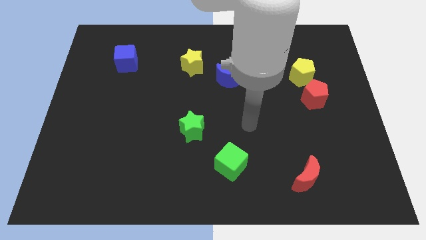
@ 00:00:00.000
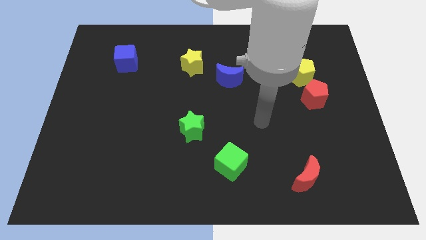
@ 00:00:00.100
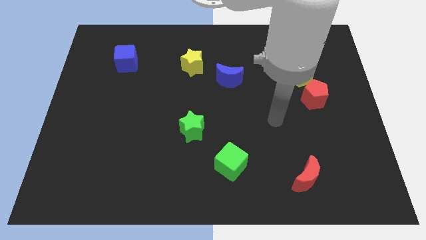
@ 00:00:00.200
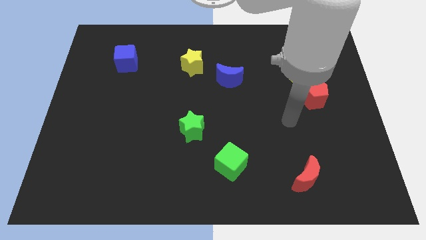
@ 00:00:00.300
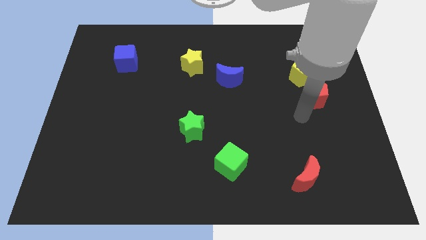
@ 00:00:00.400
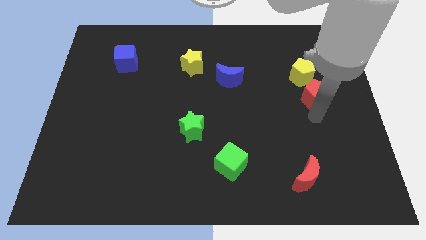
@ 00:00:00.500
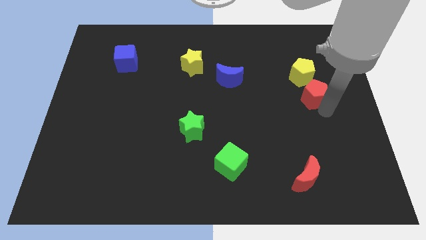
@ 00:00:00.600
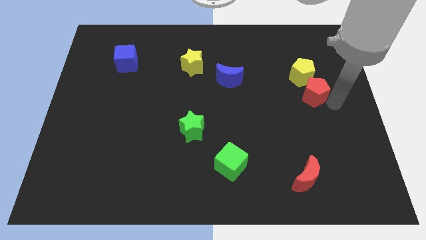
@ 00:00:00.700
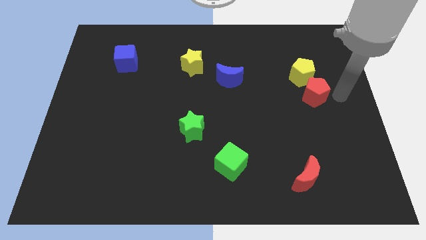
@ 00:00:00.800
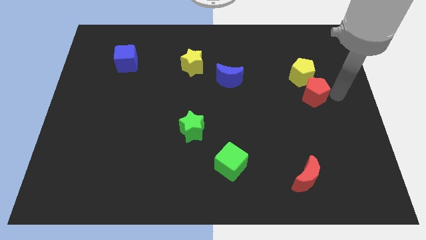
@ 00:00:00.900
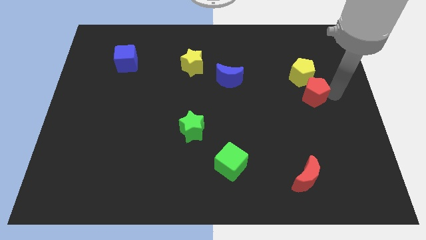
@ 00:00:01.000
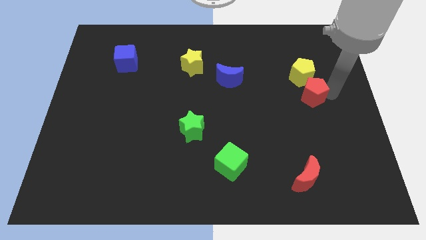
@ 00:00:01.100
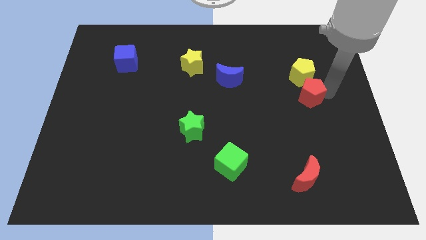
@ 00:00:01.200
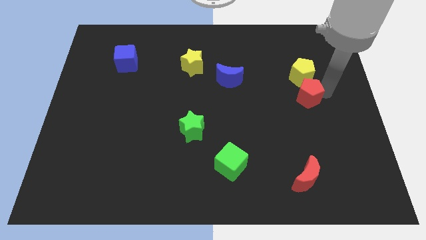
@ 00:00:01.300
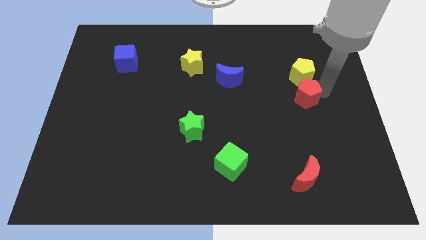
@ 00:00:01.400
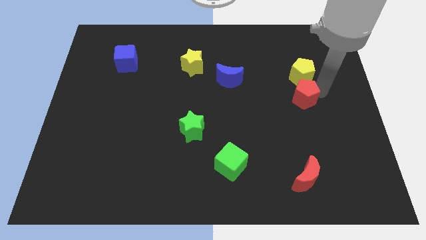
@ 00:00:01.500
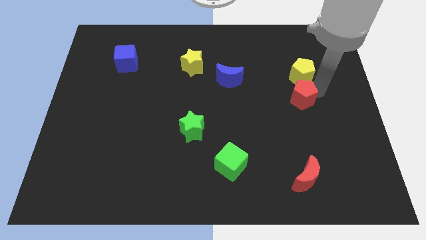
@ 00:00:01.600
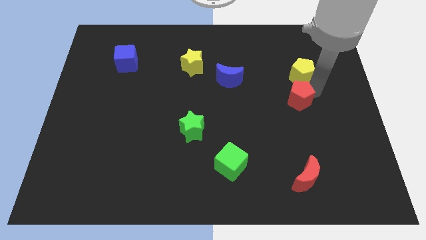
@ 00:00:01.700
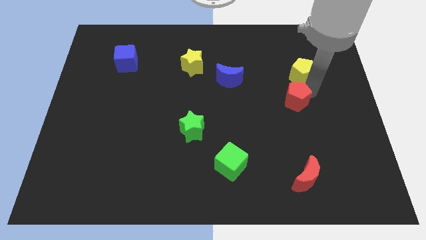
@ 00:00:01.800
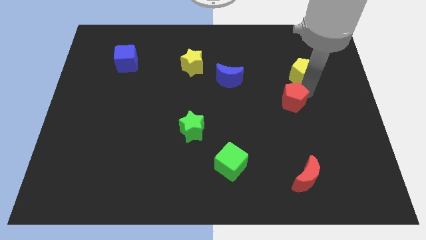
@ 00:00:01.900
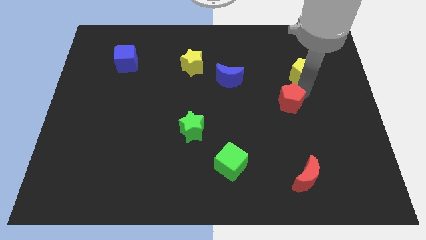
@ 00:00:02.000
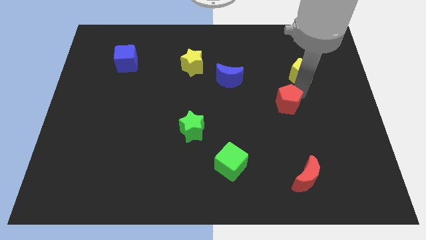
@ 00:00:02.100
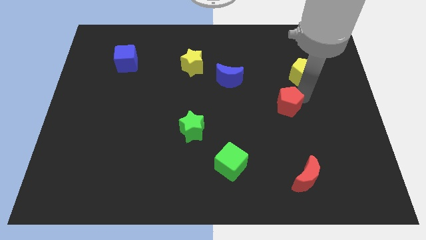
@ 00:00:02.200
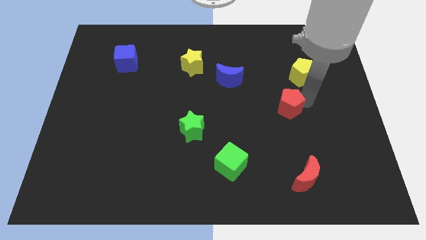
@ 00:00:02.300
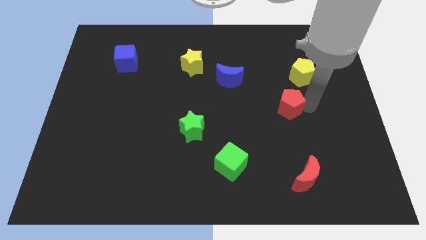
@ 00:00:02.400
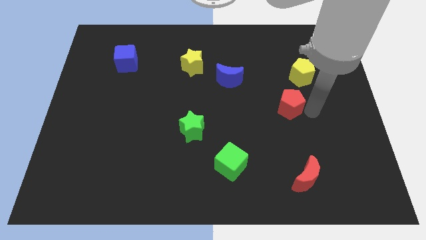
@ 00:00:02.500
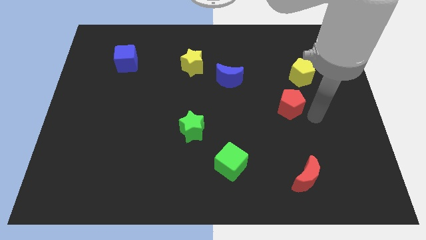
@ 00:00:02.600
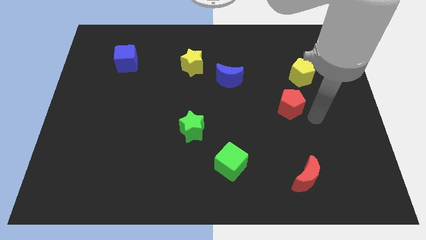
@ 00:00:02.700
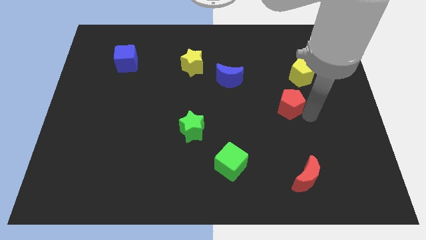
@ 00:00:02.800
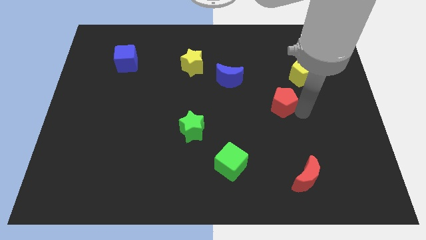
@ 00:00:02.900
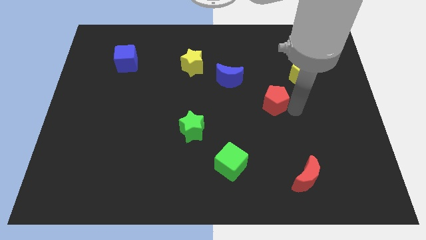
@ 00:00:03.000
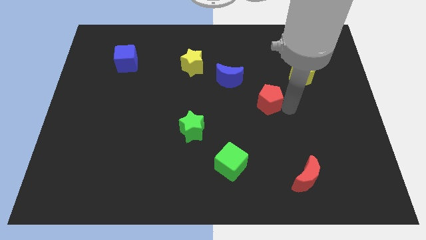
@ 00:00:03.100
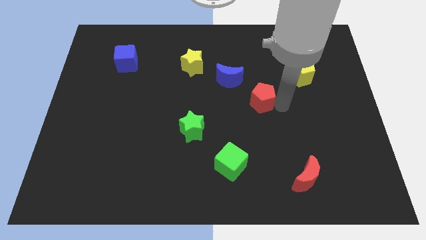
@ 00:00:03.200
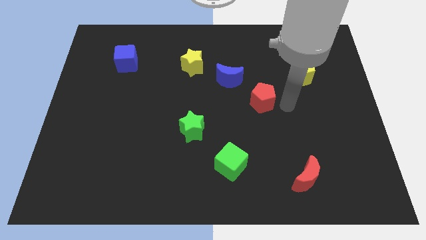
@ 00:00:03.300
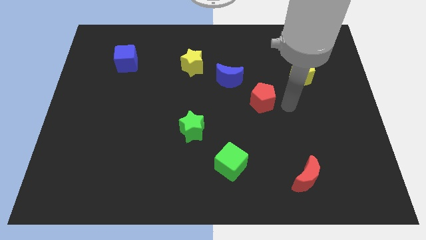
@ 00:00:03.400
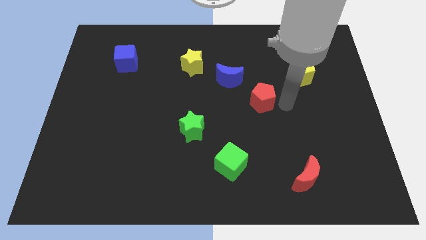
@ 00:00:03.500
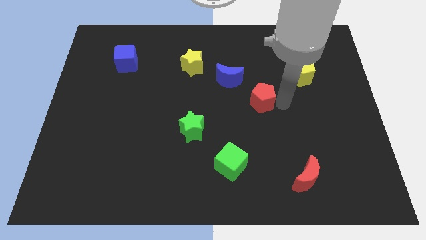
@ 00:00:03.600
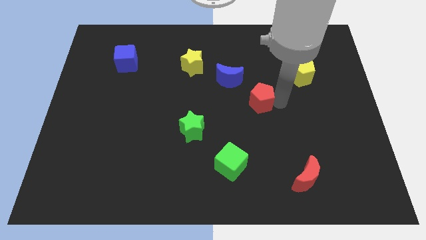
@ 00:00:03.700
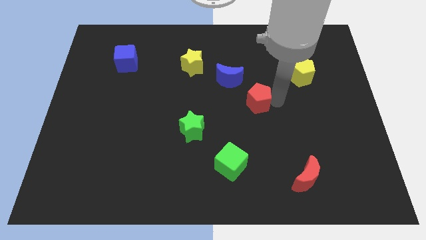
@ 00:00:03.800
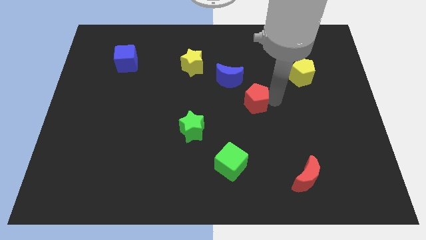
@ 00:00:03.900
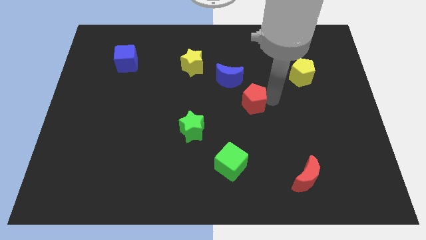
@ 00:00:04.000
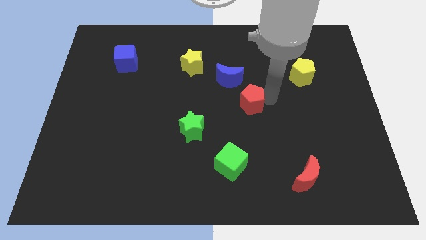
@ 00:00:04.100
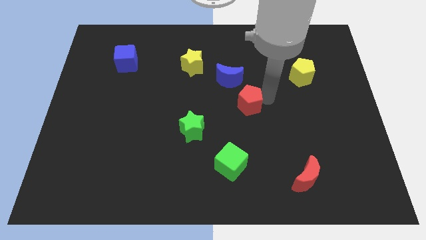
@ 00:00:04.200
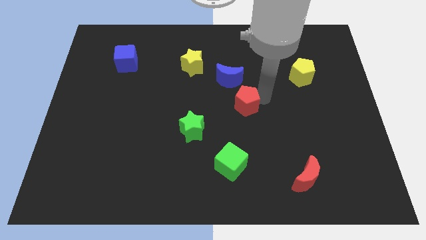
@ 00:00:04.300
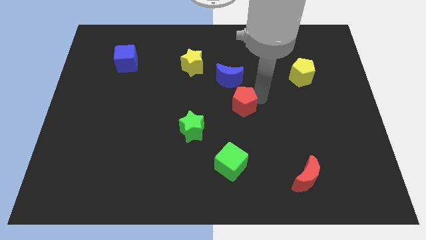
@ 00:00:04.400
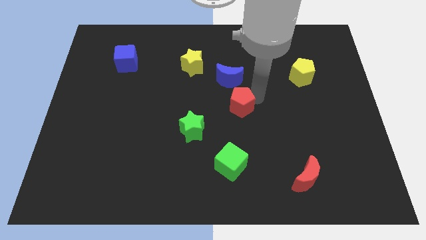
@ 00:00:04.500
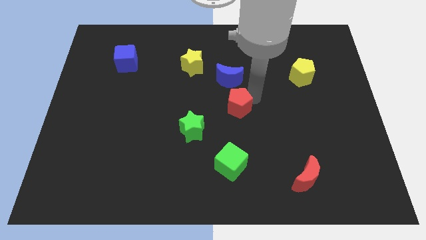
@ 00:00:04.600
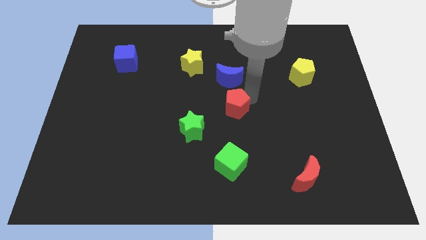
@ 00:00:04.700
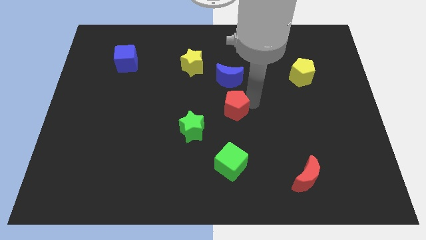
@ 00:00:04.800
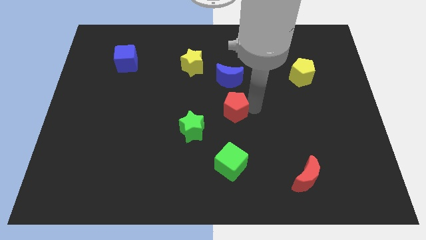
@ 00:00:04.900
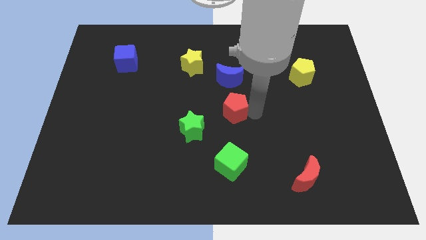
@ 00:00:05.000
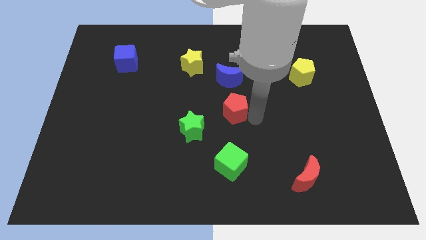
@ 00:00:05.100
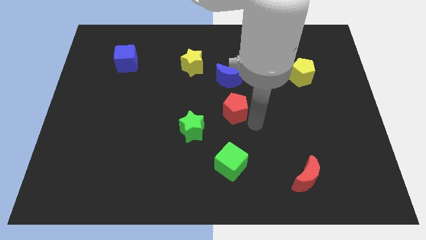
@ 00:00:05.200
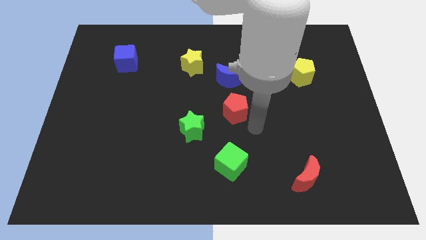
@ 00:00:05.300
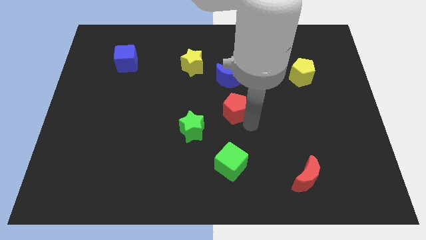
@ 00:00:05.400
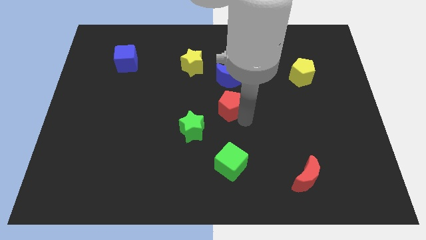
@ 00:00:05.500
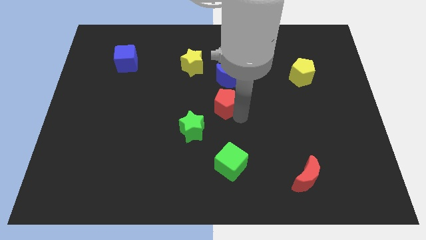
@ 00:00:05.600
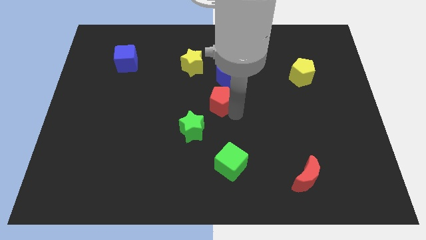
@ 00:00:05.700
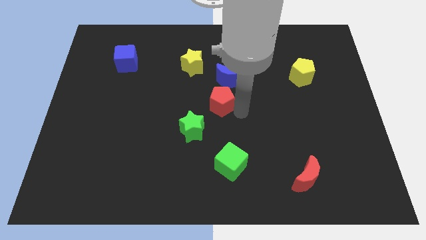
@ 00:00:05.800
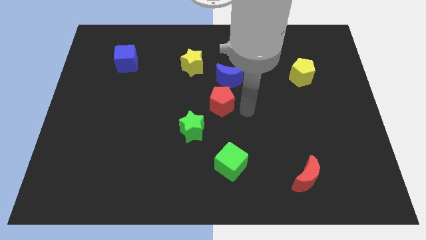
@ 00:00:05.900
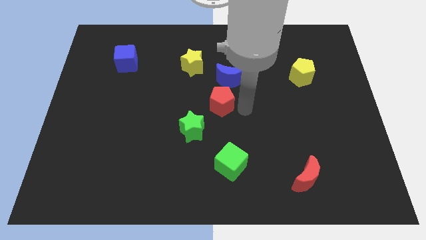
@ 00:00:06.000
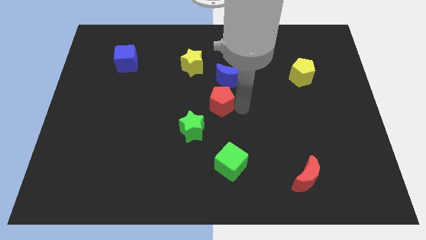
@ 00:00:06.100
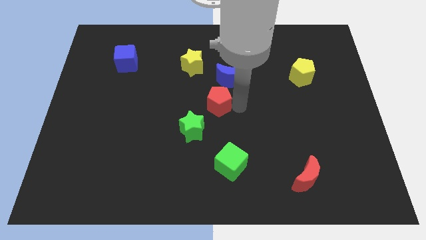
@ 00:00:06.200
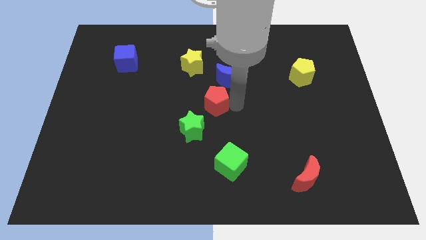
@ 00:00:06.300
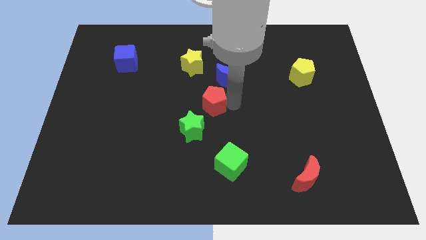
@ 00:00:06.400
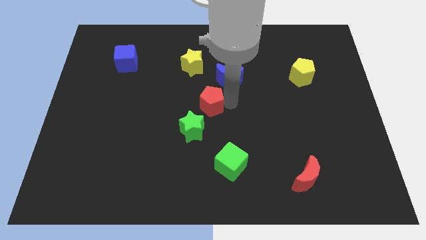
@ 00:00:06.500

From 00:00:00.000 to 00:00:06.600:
push the red pentagon to the bottom side of the yellow star

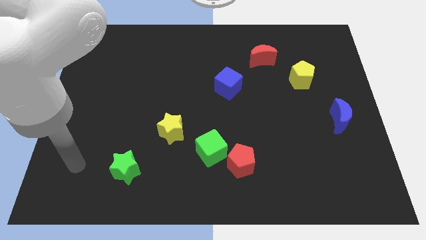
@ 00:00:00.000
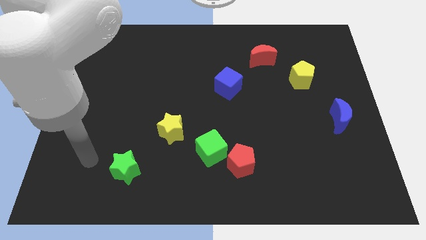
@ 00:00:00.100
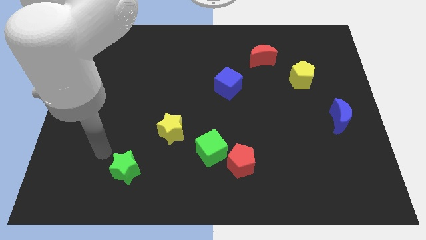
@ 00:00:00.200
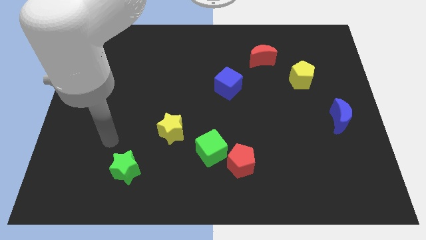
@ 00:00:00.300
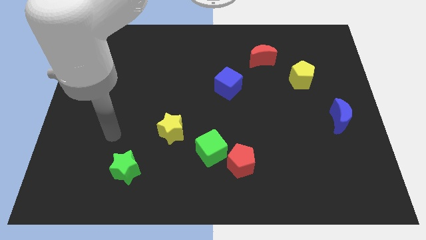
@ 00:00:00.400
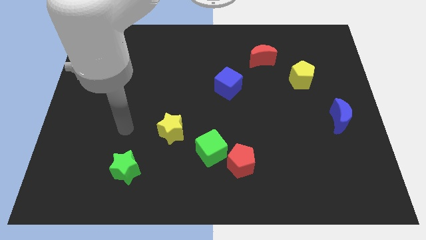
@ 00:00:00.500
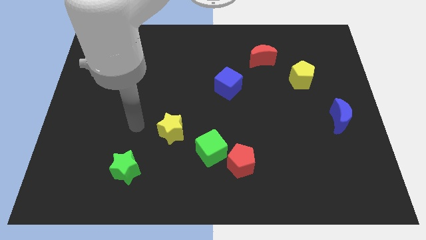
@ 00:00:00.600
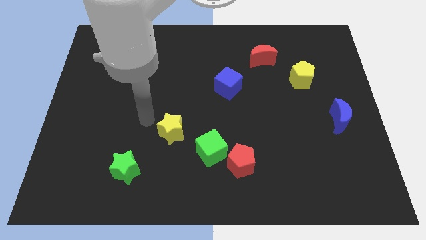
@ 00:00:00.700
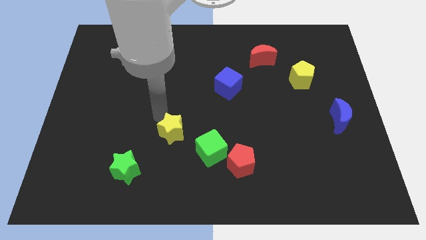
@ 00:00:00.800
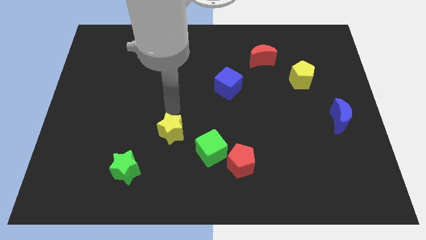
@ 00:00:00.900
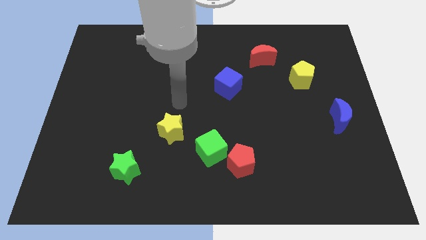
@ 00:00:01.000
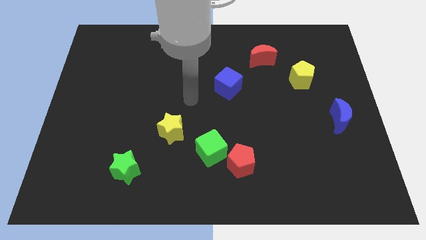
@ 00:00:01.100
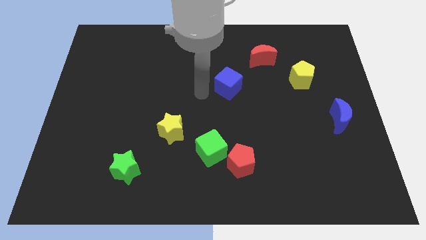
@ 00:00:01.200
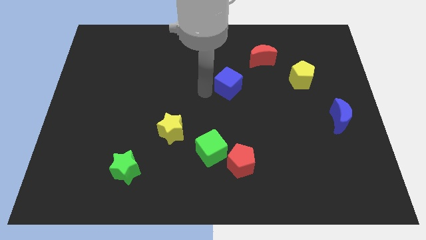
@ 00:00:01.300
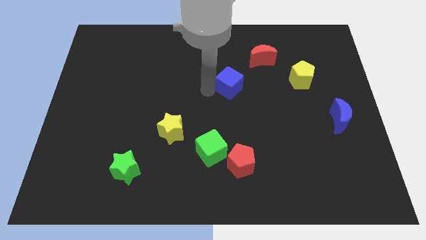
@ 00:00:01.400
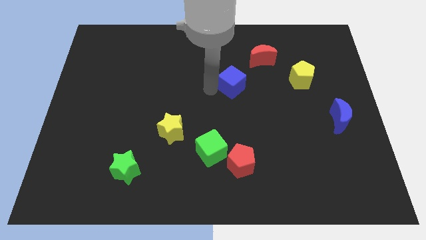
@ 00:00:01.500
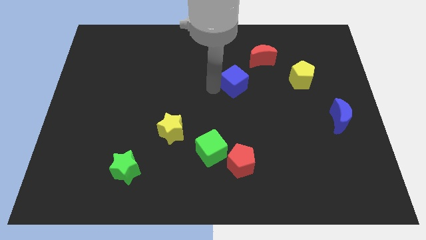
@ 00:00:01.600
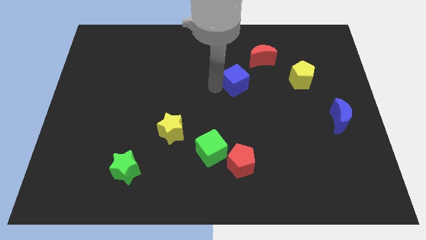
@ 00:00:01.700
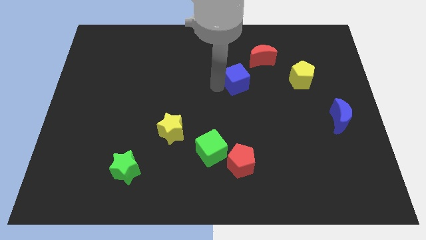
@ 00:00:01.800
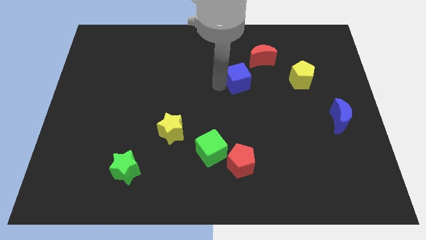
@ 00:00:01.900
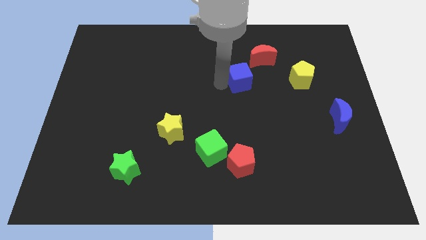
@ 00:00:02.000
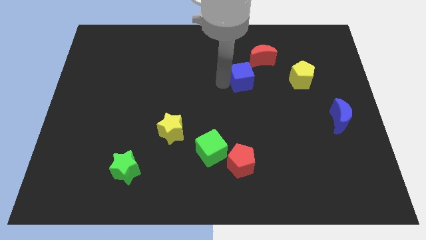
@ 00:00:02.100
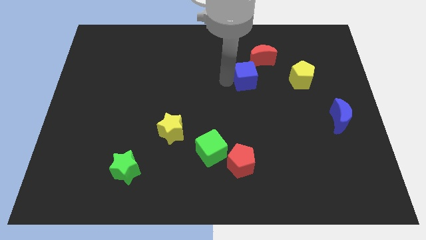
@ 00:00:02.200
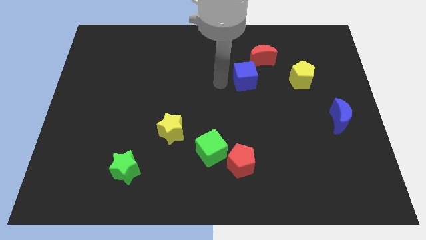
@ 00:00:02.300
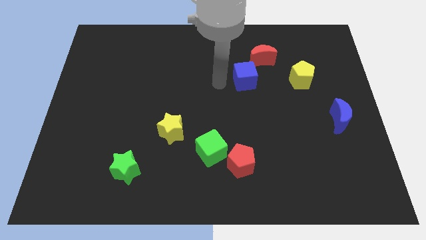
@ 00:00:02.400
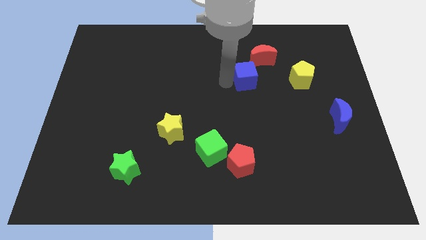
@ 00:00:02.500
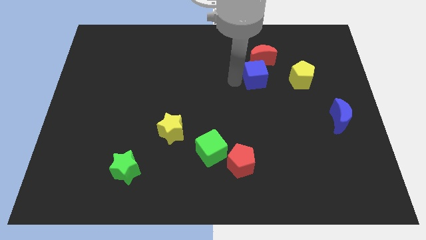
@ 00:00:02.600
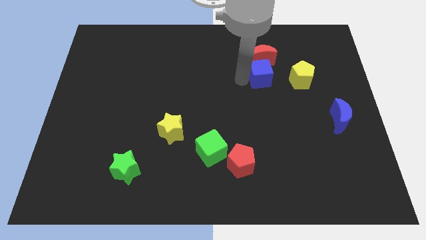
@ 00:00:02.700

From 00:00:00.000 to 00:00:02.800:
move the blue cube to the bottom right of the red moon
